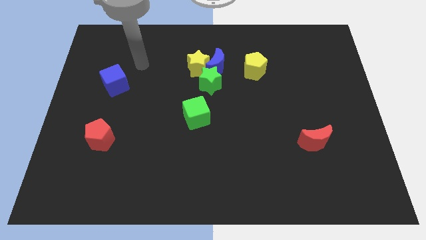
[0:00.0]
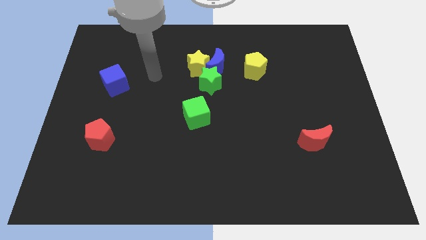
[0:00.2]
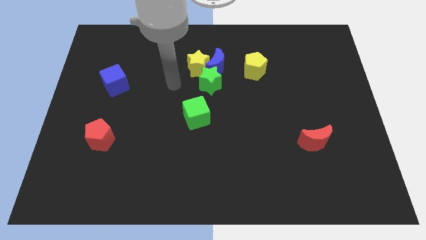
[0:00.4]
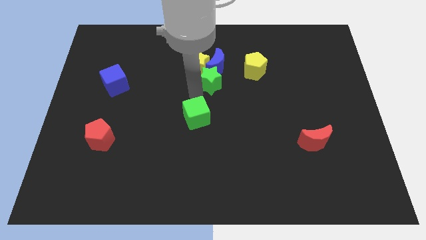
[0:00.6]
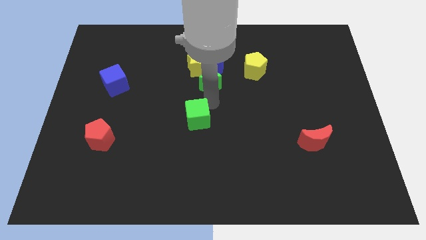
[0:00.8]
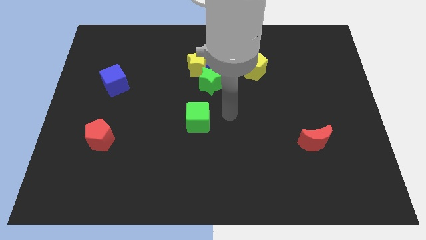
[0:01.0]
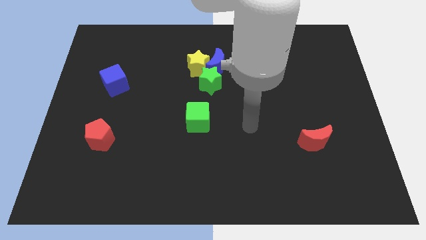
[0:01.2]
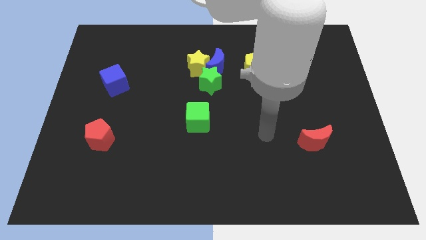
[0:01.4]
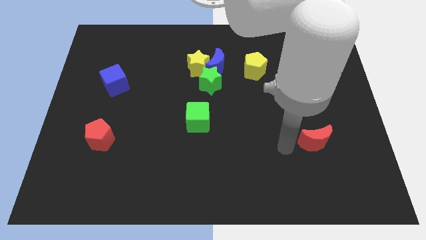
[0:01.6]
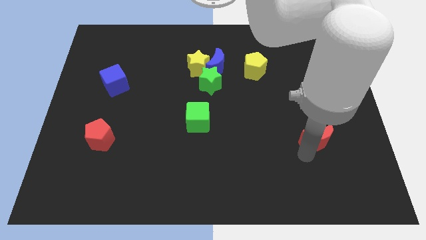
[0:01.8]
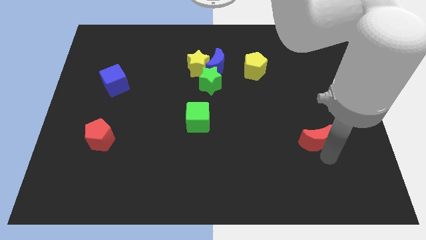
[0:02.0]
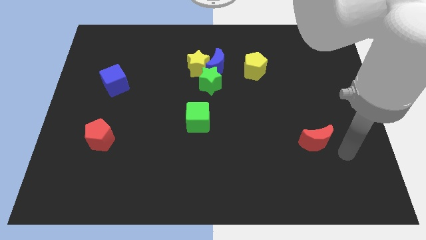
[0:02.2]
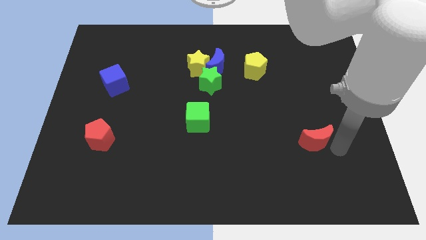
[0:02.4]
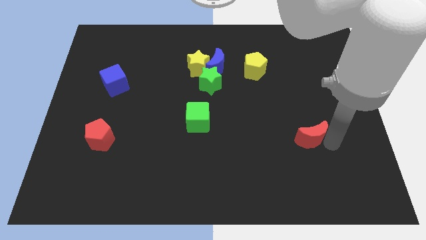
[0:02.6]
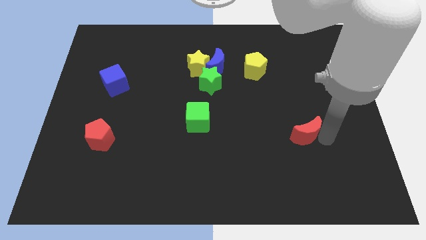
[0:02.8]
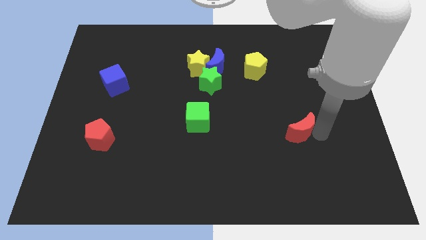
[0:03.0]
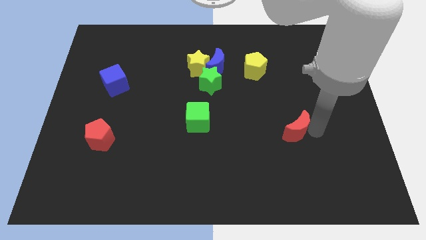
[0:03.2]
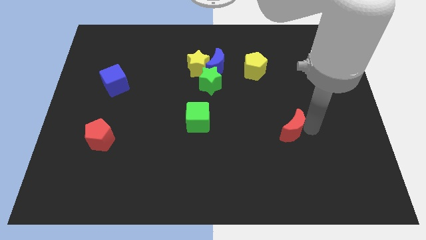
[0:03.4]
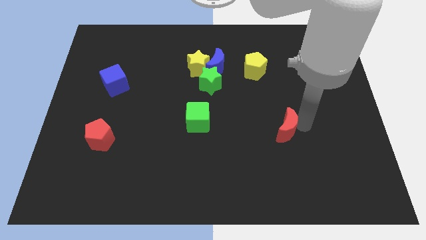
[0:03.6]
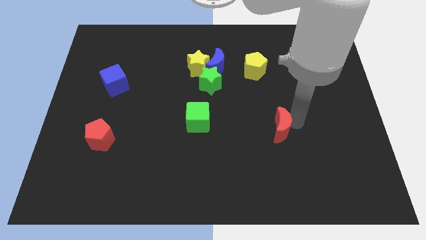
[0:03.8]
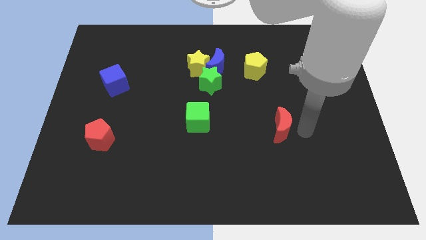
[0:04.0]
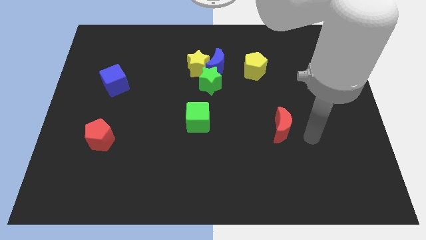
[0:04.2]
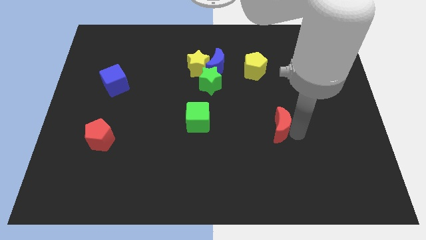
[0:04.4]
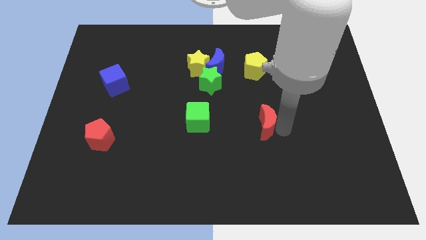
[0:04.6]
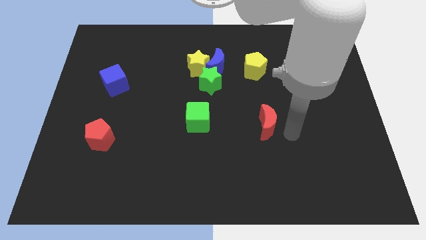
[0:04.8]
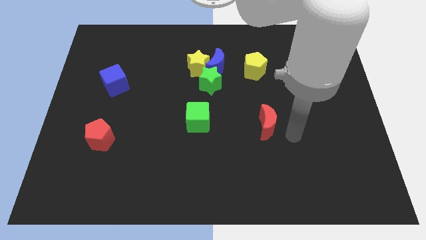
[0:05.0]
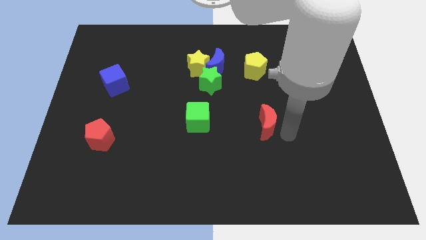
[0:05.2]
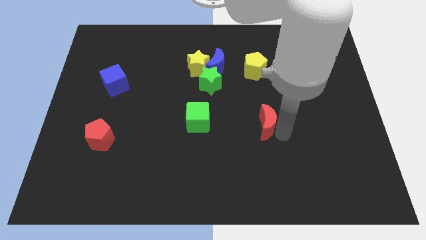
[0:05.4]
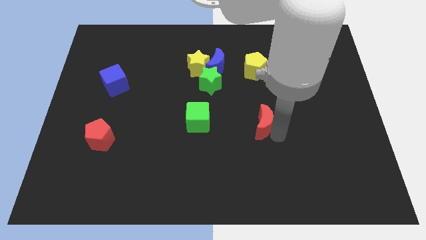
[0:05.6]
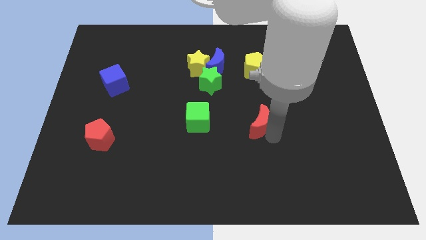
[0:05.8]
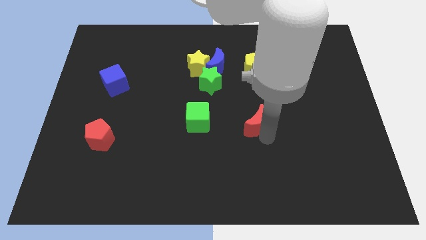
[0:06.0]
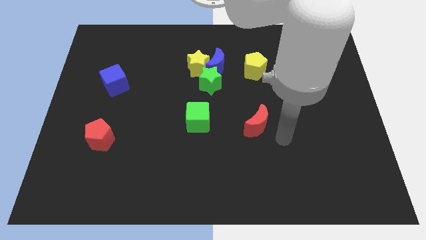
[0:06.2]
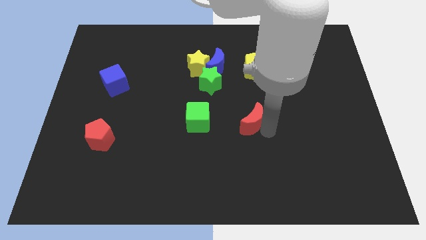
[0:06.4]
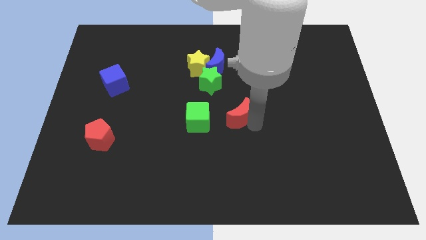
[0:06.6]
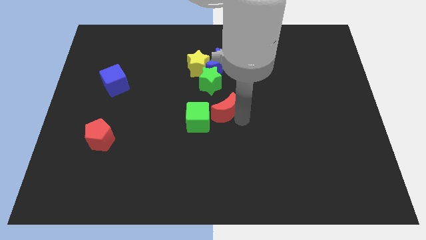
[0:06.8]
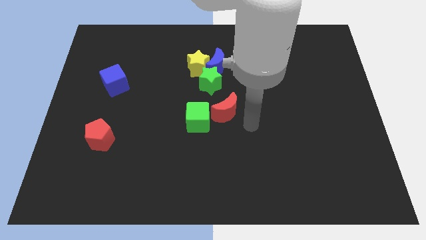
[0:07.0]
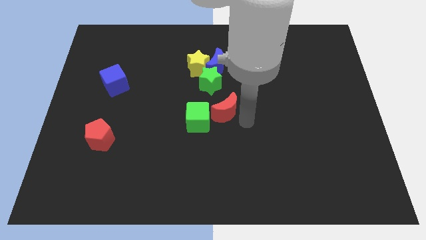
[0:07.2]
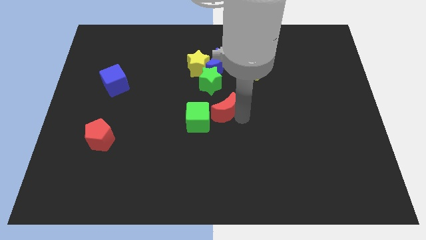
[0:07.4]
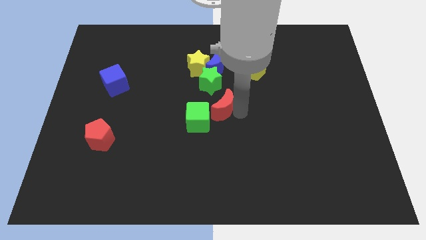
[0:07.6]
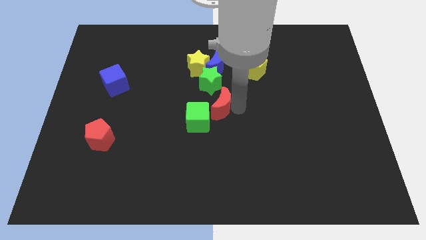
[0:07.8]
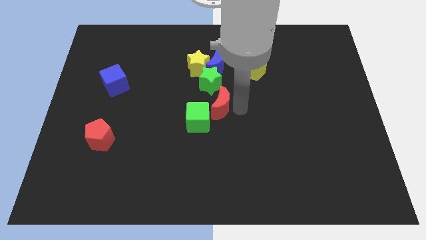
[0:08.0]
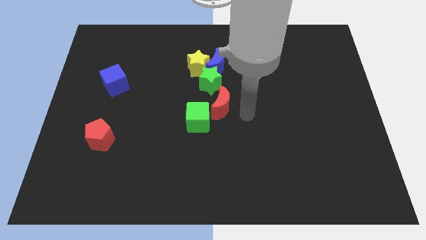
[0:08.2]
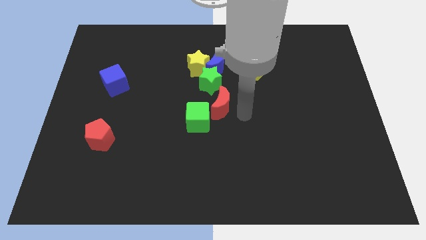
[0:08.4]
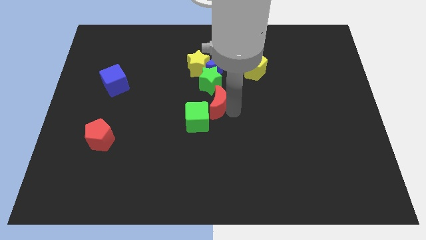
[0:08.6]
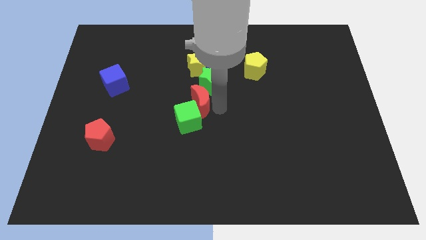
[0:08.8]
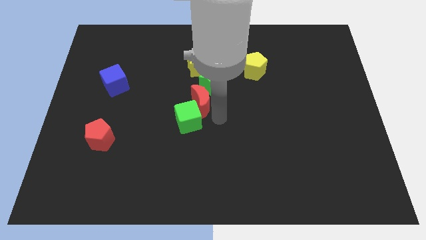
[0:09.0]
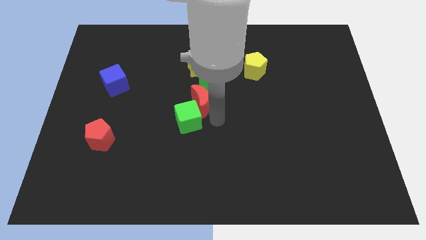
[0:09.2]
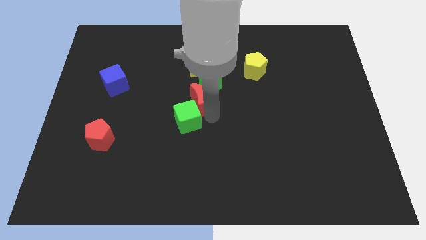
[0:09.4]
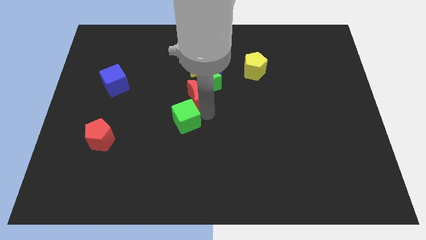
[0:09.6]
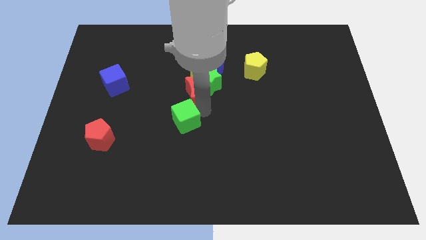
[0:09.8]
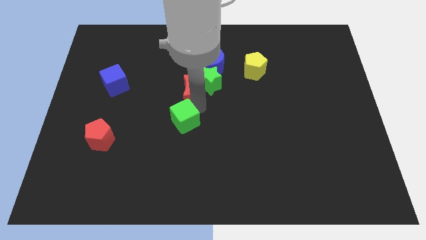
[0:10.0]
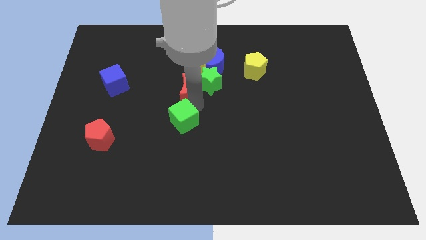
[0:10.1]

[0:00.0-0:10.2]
slide the red moon diagonally down and to the left of the yellow star

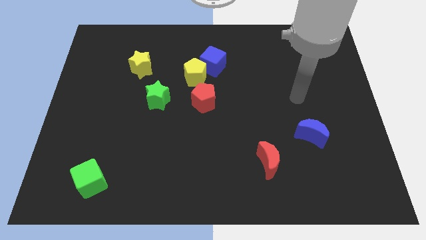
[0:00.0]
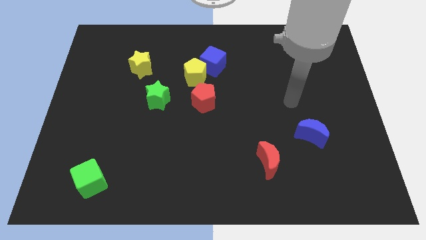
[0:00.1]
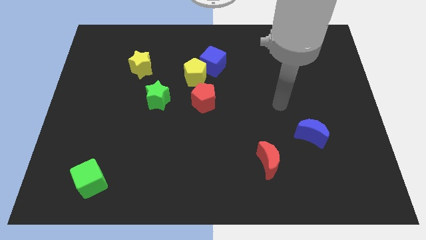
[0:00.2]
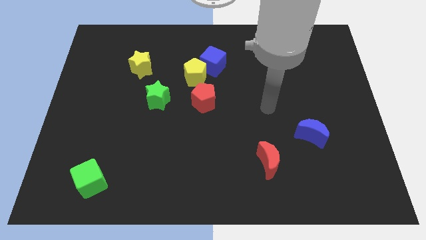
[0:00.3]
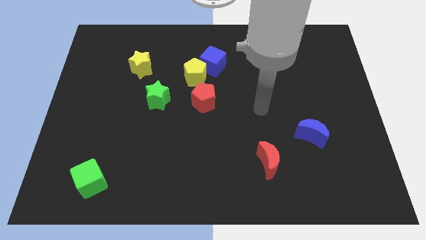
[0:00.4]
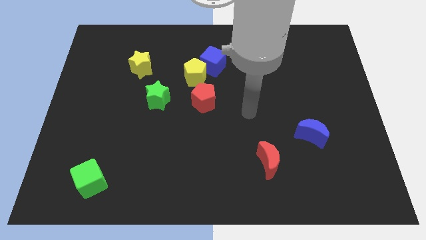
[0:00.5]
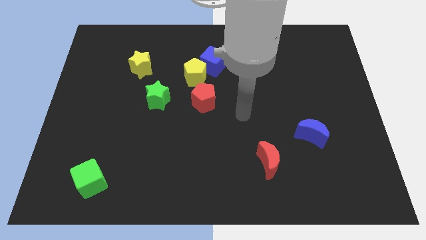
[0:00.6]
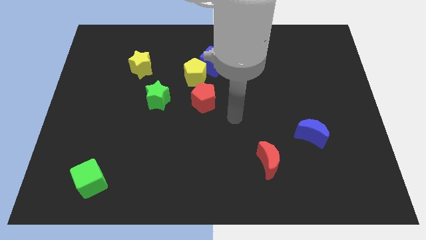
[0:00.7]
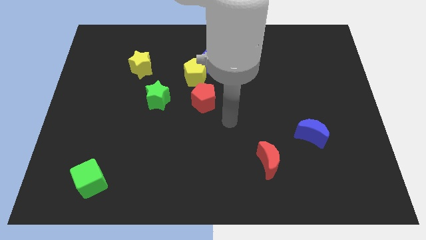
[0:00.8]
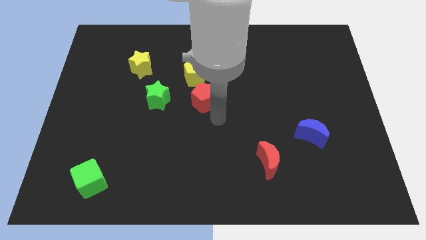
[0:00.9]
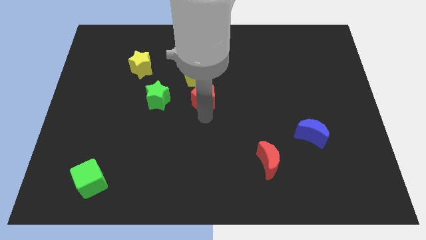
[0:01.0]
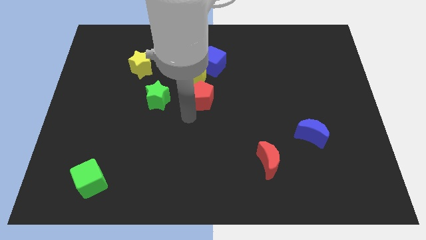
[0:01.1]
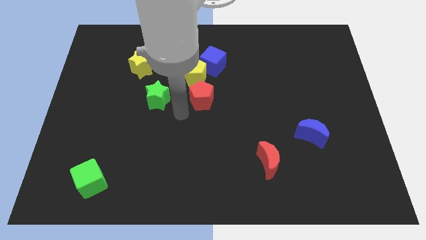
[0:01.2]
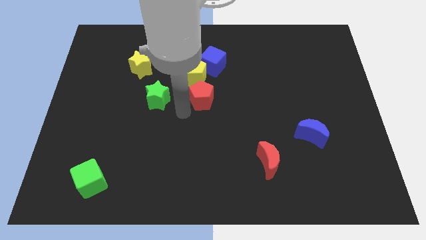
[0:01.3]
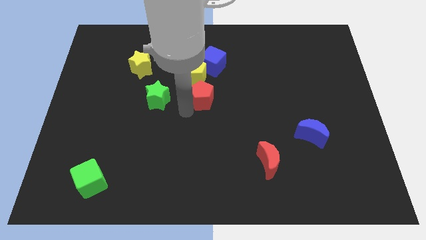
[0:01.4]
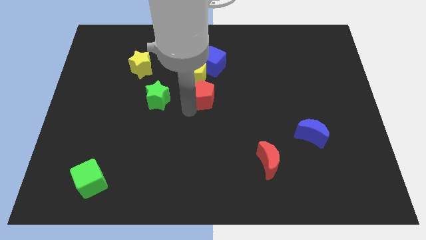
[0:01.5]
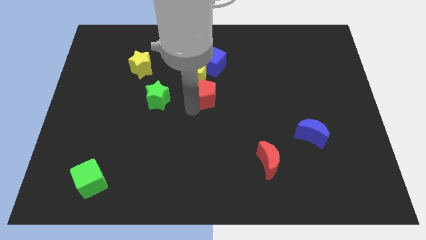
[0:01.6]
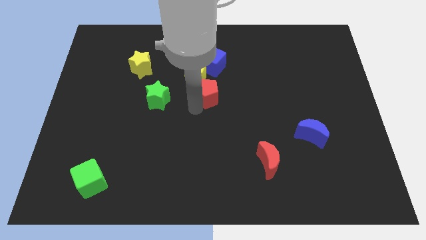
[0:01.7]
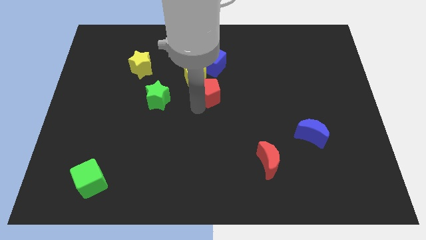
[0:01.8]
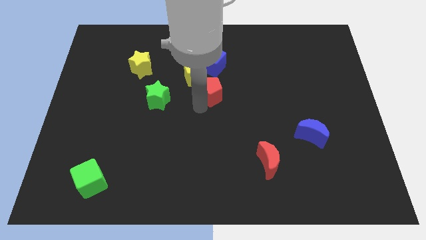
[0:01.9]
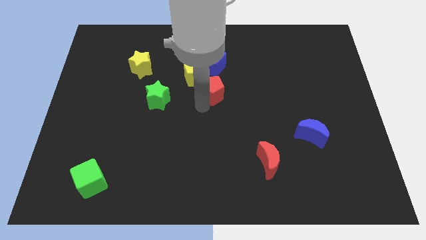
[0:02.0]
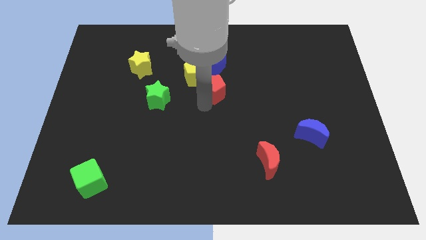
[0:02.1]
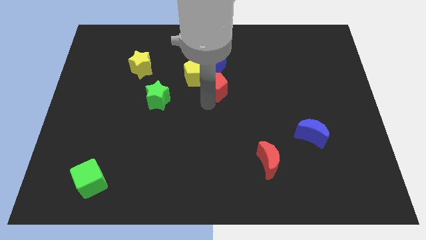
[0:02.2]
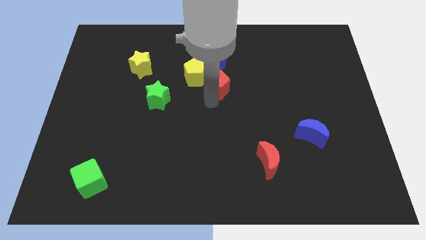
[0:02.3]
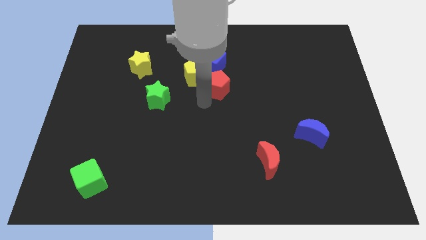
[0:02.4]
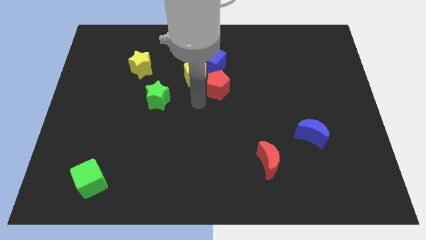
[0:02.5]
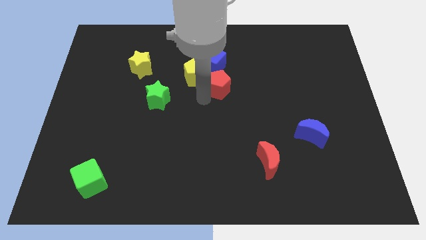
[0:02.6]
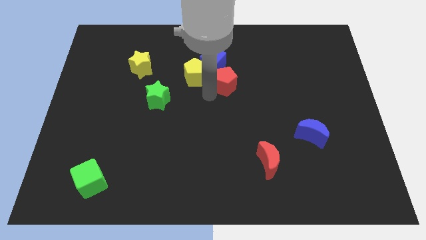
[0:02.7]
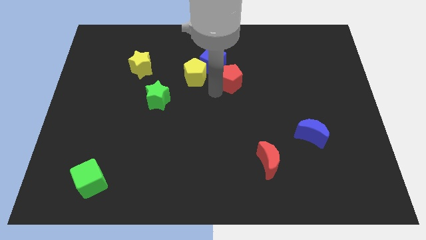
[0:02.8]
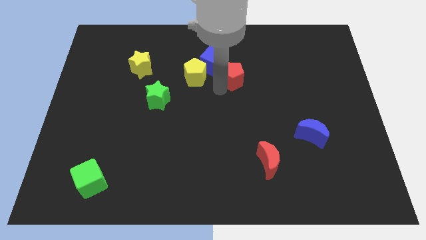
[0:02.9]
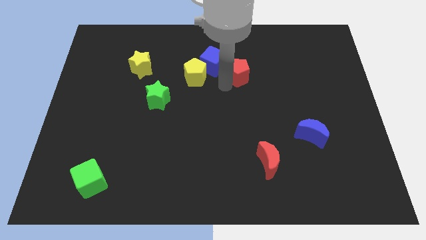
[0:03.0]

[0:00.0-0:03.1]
push the red pentagon right of the blue cube
